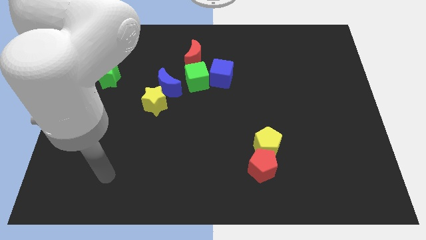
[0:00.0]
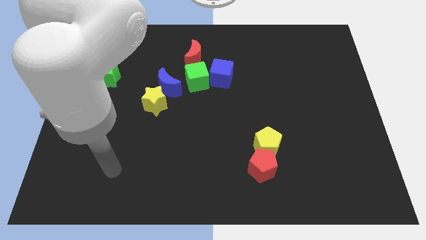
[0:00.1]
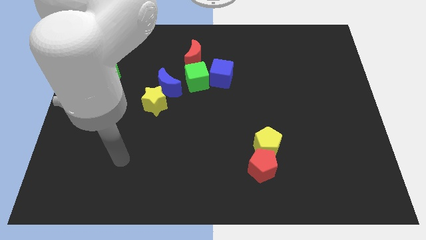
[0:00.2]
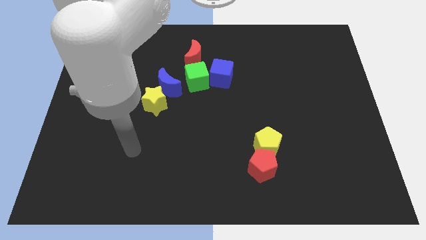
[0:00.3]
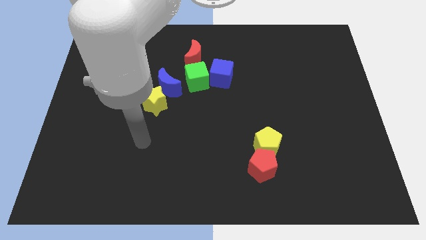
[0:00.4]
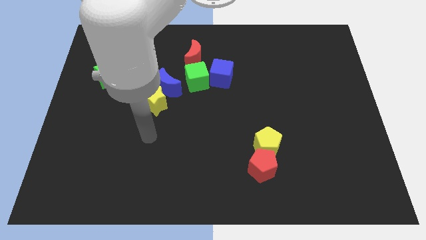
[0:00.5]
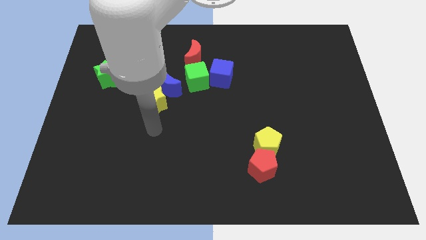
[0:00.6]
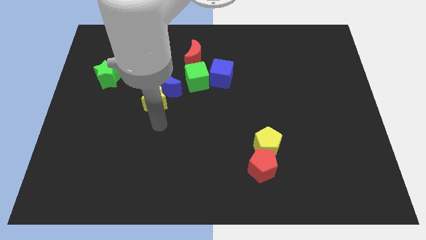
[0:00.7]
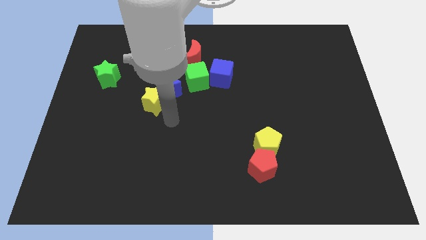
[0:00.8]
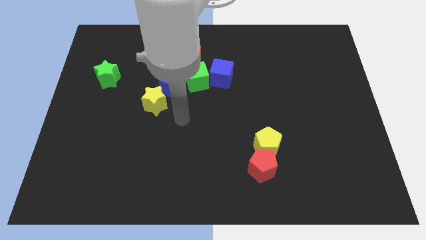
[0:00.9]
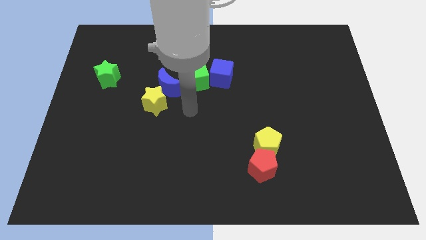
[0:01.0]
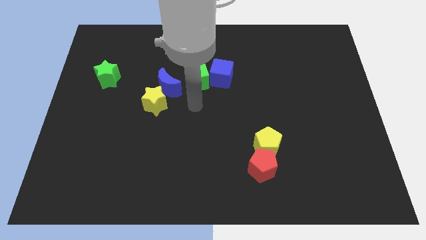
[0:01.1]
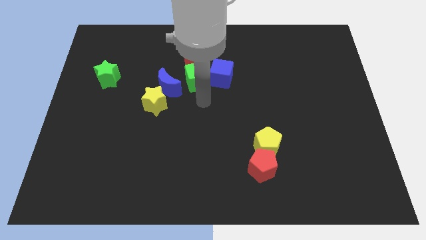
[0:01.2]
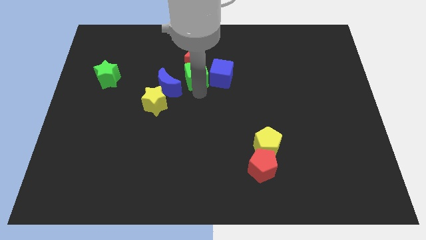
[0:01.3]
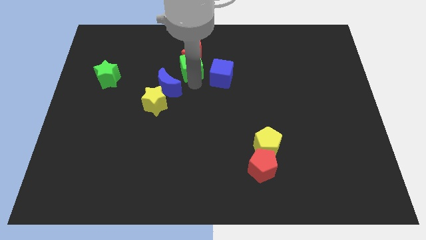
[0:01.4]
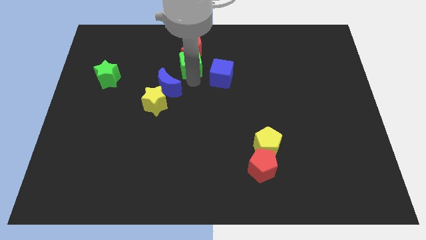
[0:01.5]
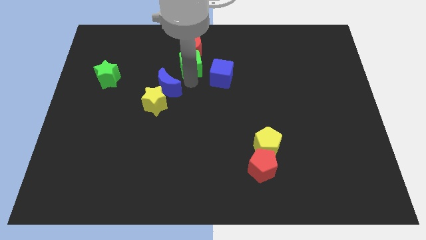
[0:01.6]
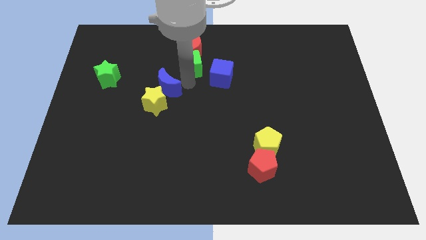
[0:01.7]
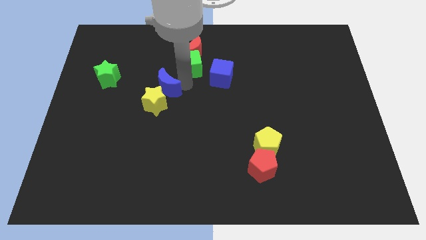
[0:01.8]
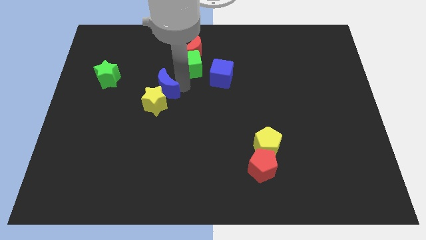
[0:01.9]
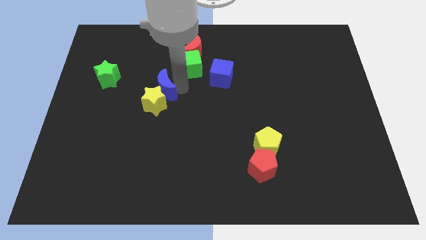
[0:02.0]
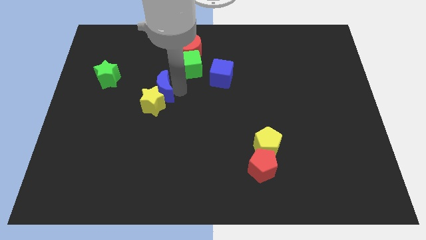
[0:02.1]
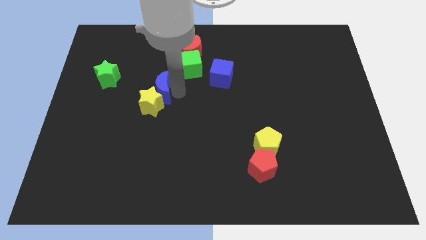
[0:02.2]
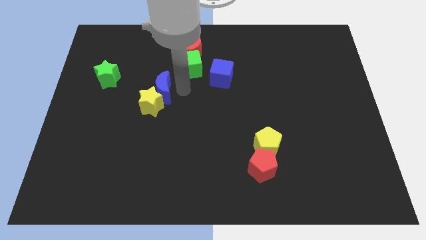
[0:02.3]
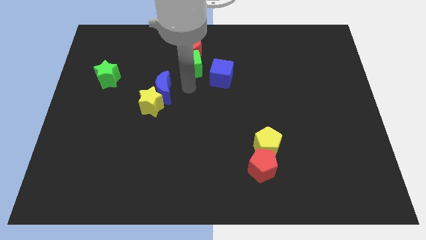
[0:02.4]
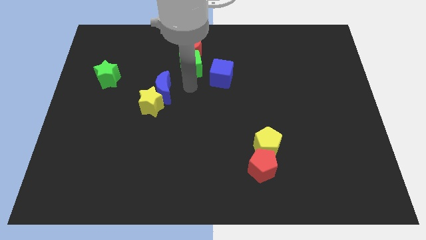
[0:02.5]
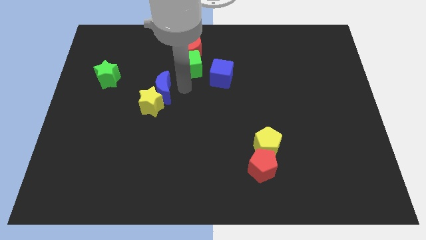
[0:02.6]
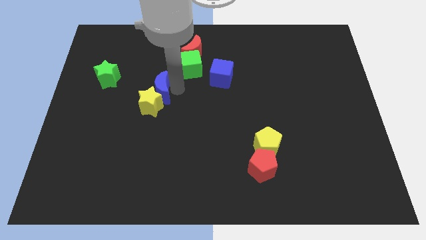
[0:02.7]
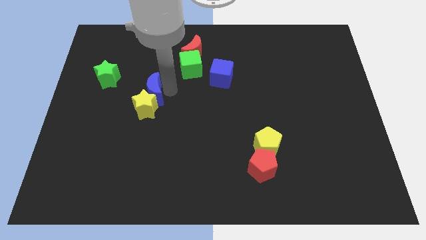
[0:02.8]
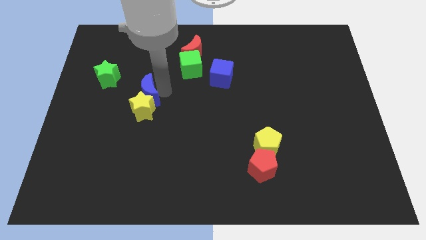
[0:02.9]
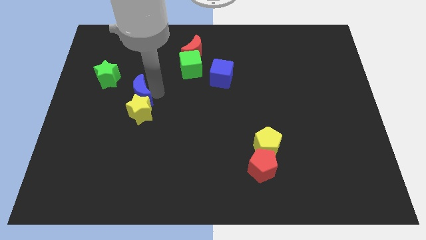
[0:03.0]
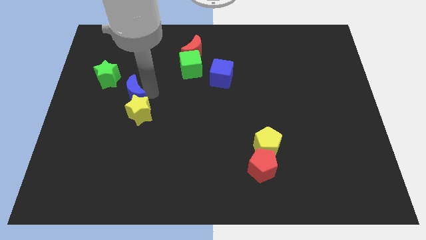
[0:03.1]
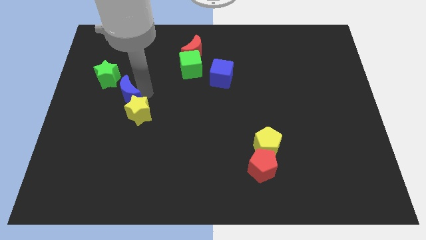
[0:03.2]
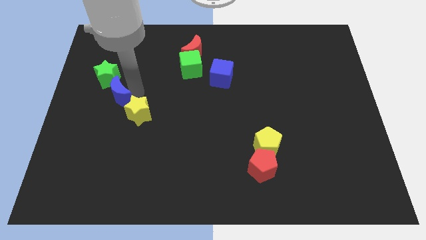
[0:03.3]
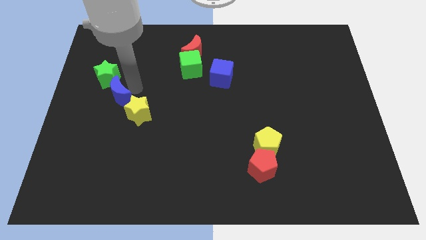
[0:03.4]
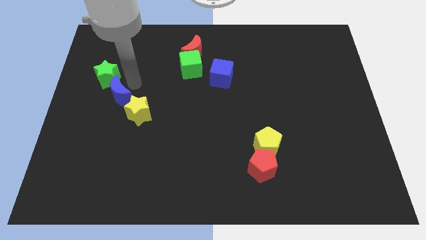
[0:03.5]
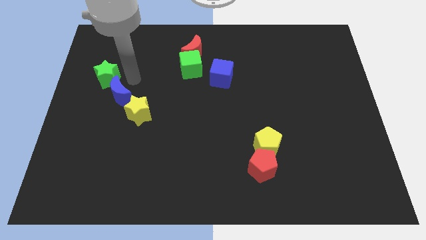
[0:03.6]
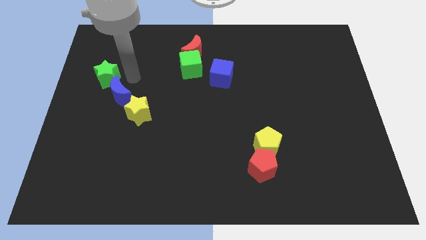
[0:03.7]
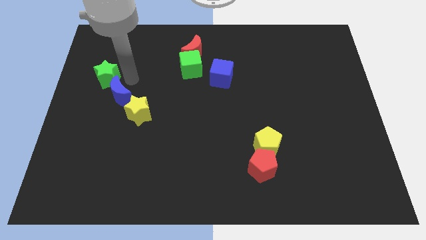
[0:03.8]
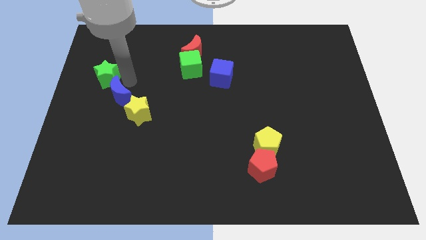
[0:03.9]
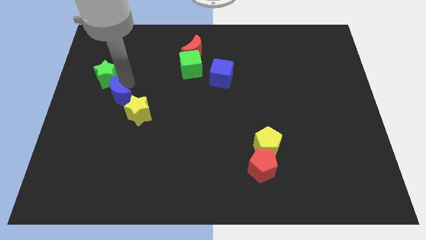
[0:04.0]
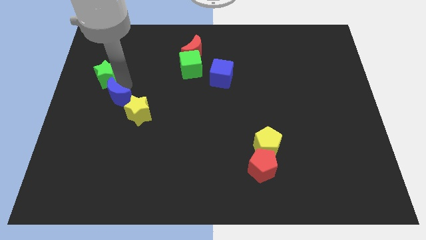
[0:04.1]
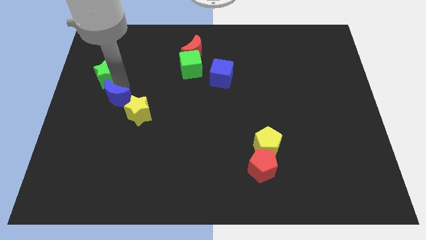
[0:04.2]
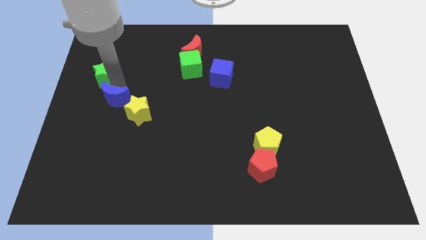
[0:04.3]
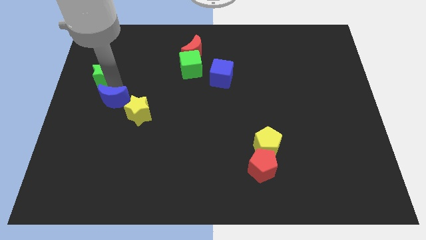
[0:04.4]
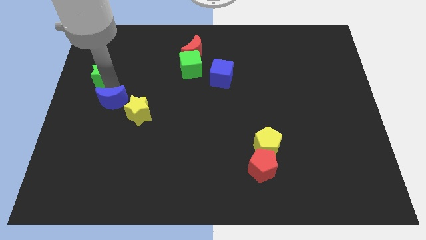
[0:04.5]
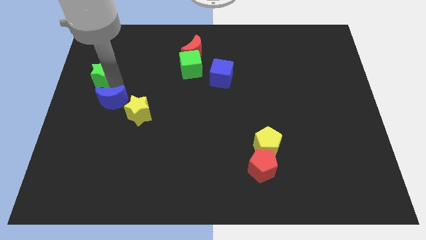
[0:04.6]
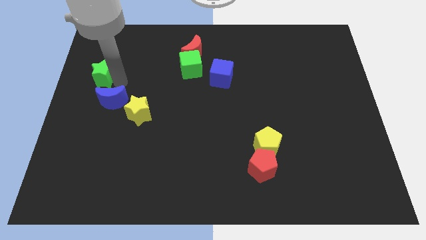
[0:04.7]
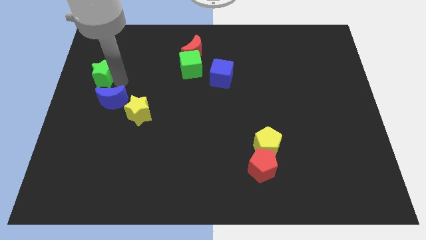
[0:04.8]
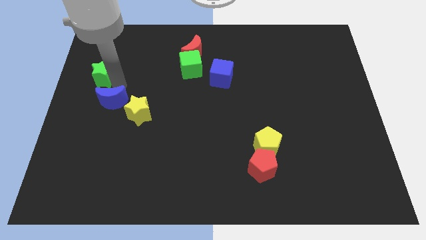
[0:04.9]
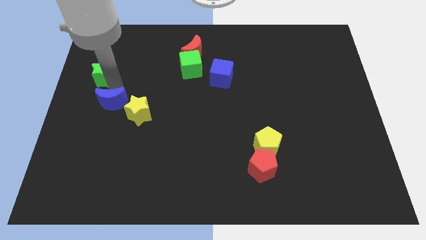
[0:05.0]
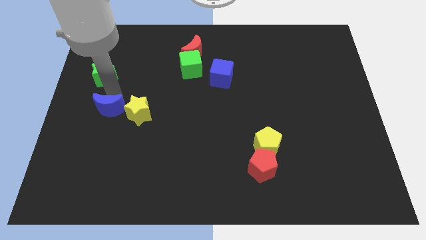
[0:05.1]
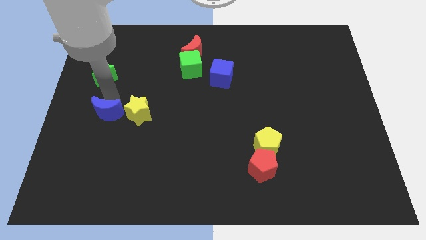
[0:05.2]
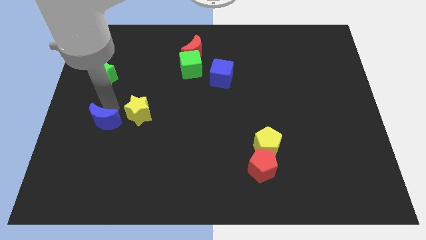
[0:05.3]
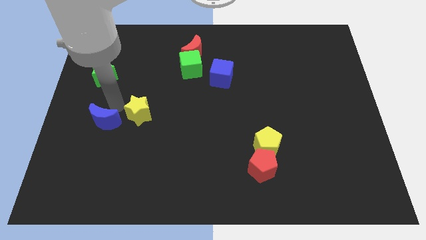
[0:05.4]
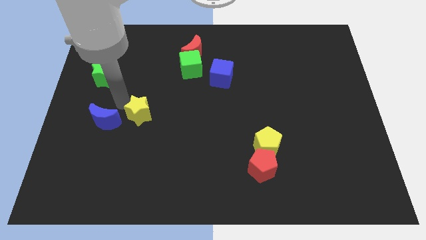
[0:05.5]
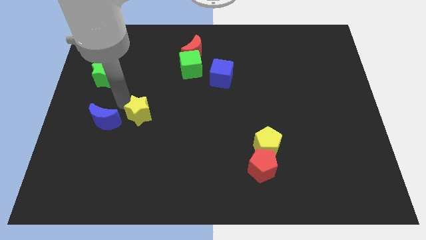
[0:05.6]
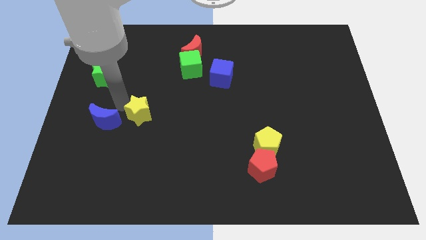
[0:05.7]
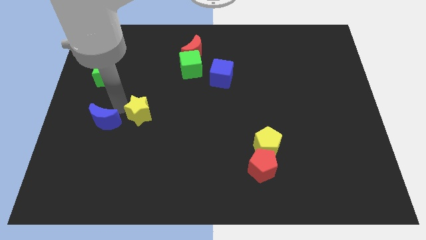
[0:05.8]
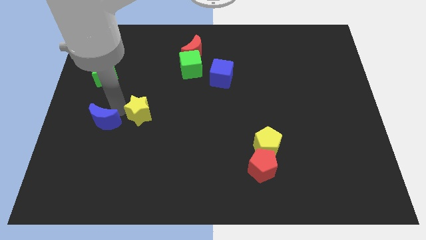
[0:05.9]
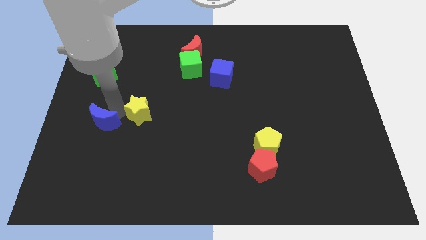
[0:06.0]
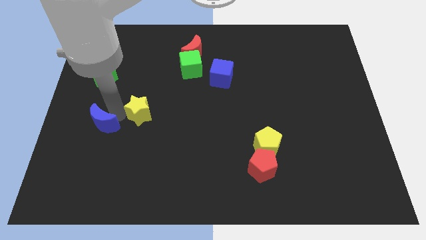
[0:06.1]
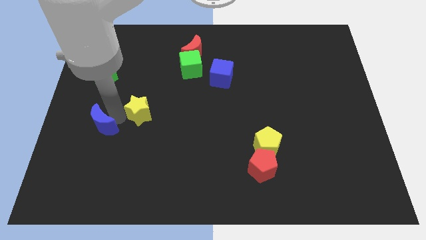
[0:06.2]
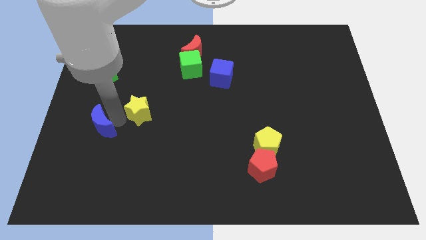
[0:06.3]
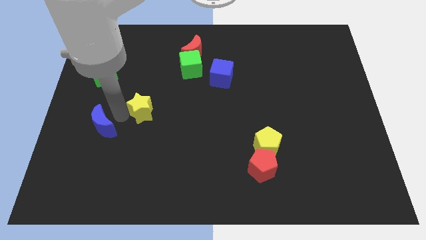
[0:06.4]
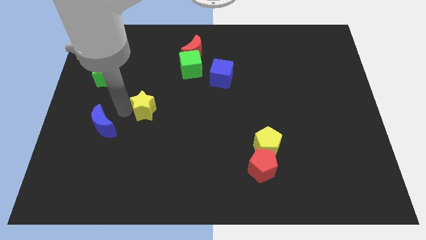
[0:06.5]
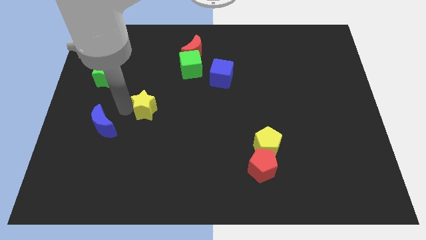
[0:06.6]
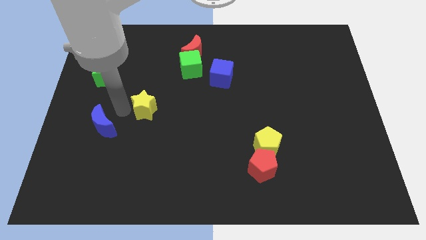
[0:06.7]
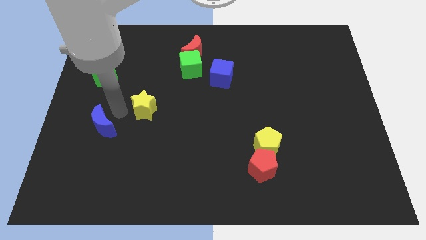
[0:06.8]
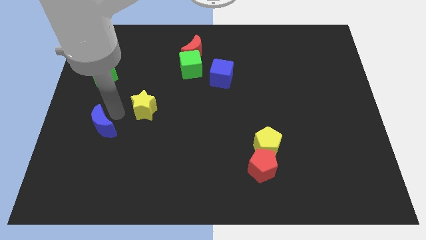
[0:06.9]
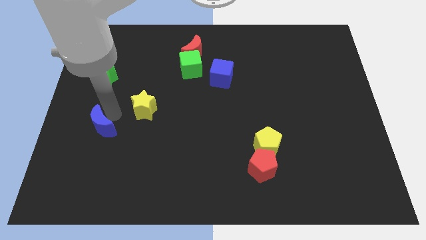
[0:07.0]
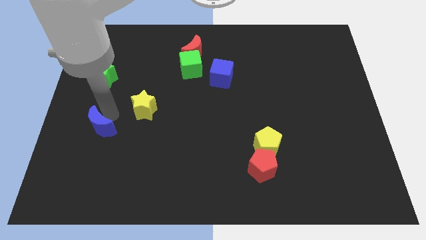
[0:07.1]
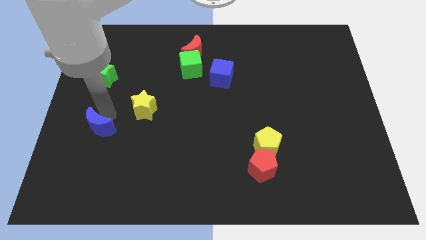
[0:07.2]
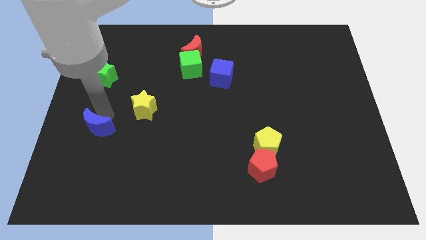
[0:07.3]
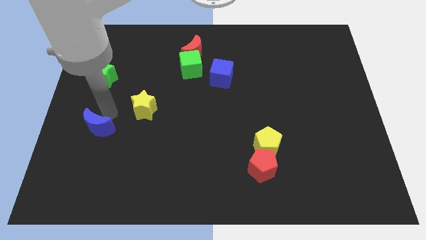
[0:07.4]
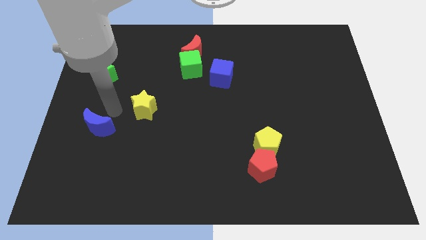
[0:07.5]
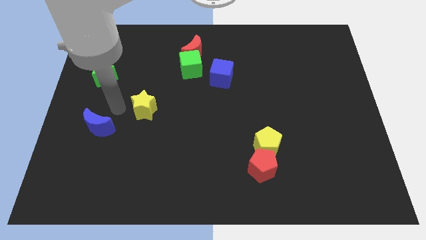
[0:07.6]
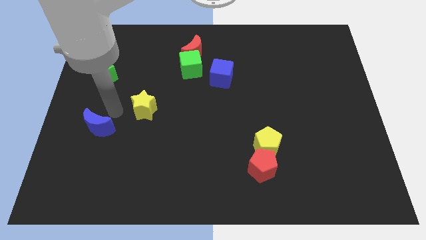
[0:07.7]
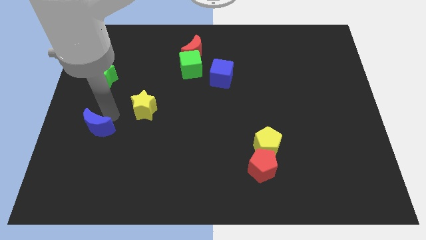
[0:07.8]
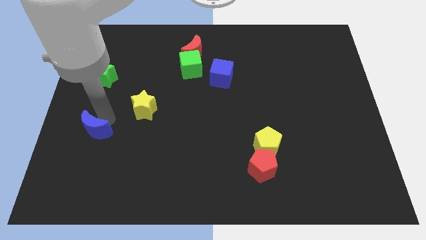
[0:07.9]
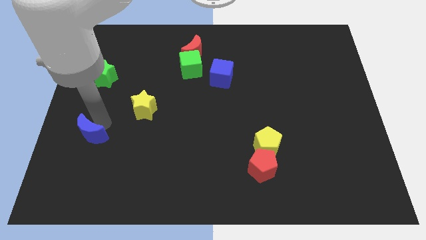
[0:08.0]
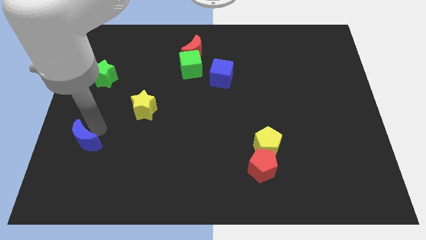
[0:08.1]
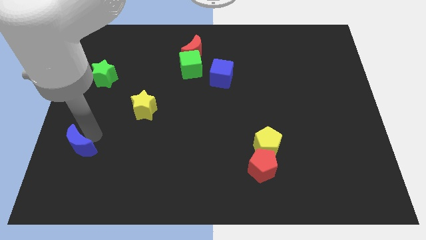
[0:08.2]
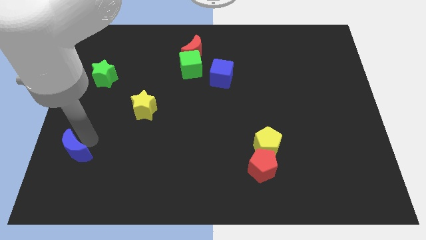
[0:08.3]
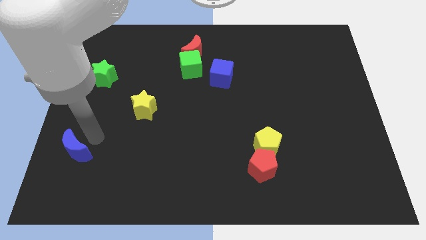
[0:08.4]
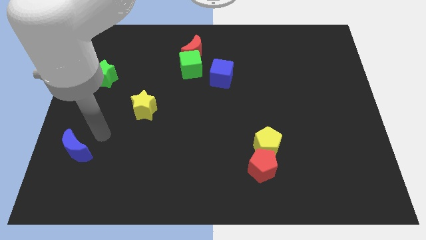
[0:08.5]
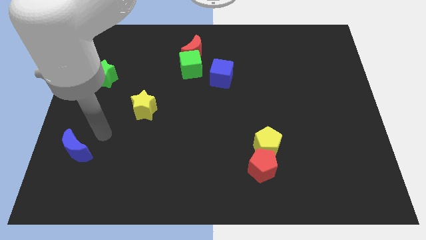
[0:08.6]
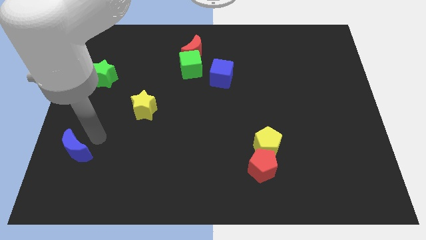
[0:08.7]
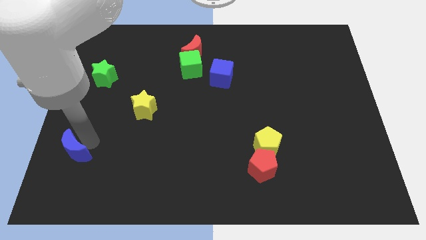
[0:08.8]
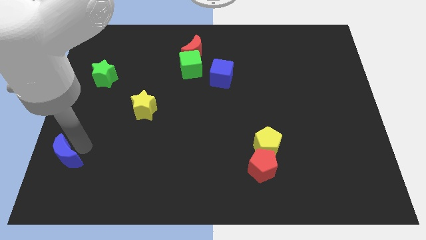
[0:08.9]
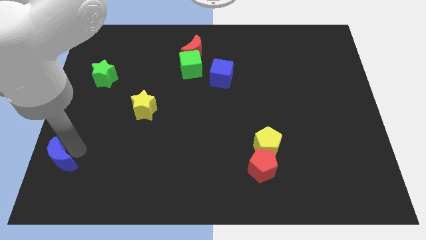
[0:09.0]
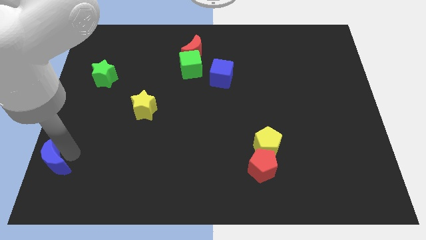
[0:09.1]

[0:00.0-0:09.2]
move the blue moon to the bottom left of the board
